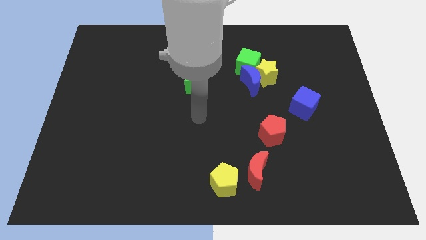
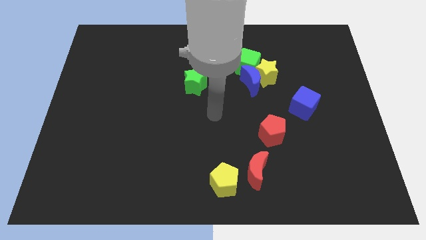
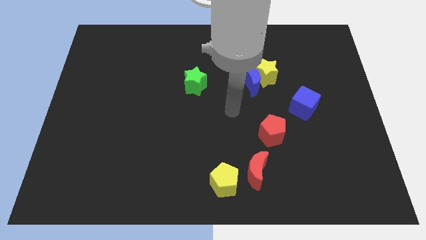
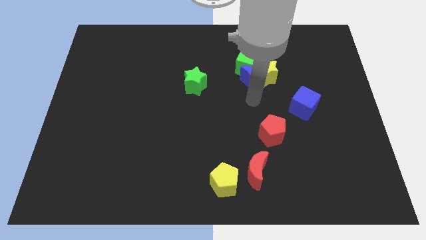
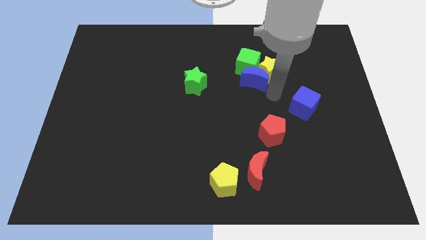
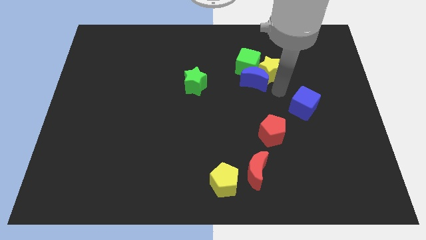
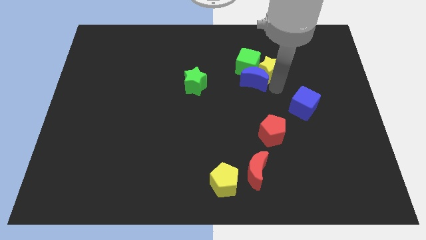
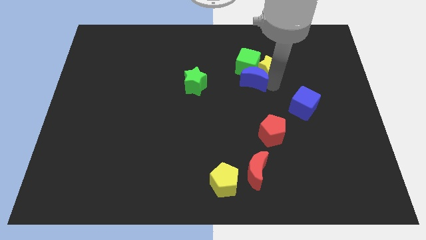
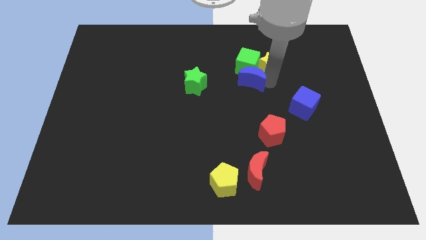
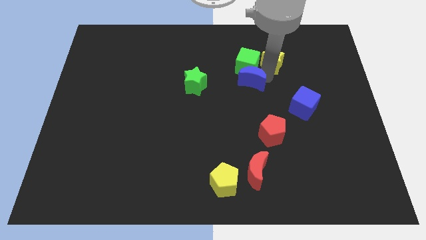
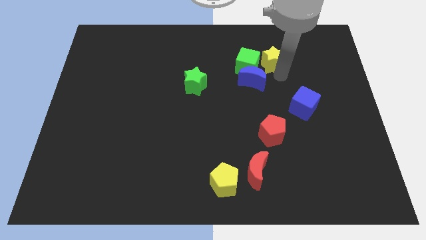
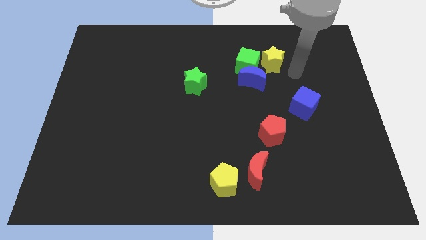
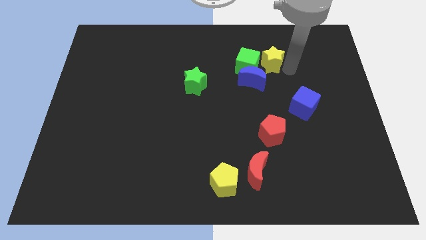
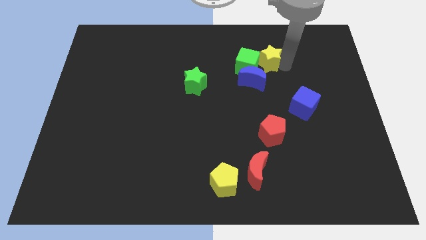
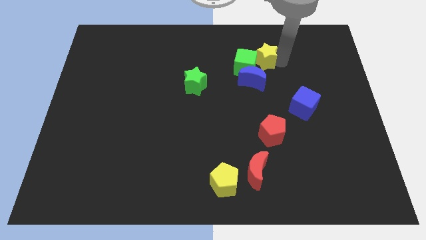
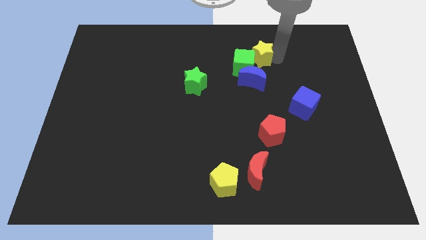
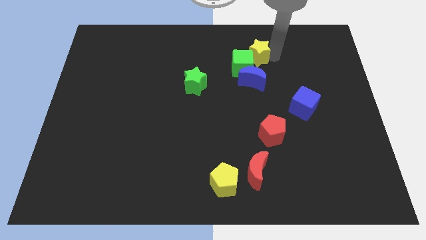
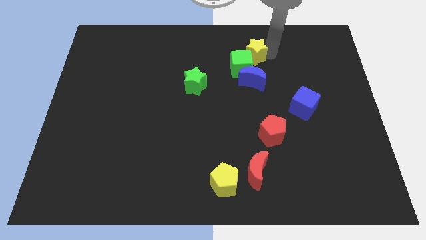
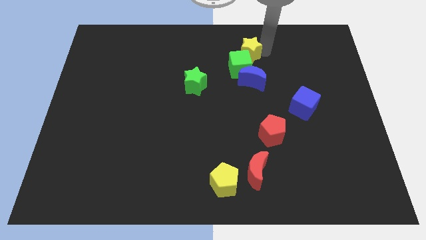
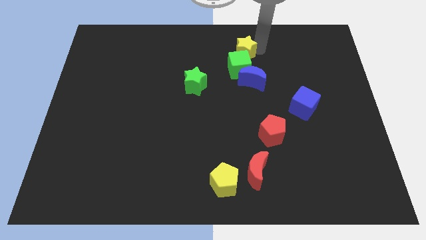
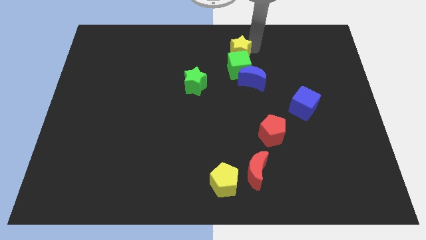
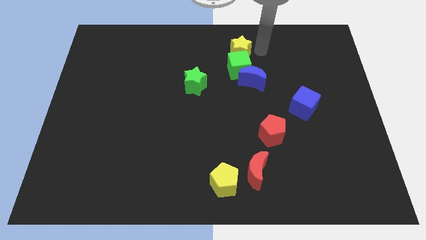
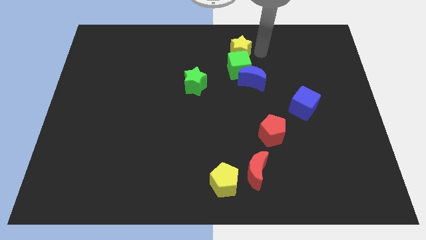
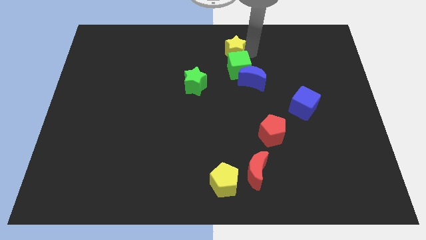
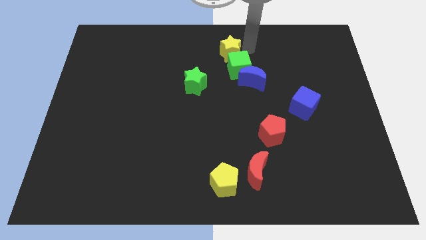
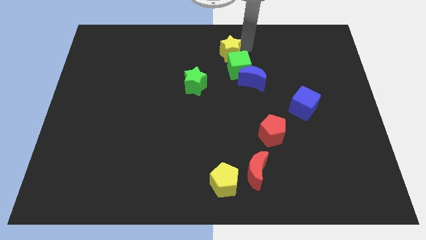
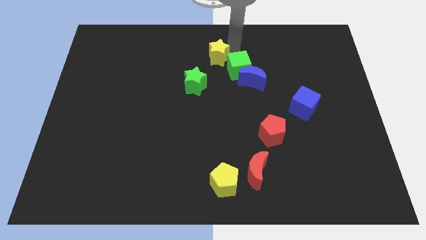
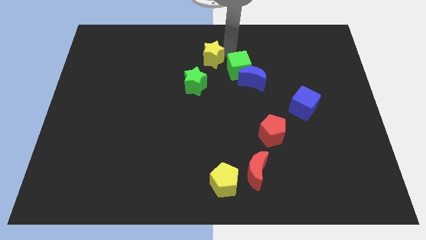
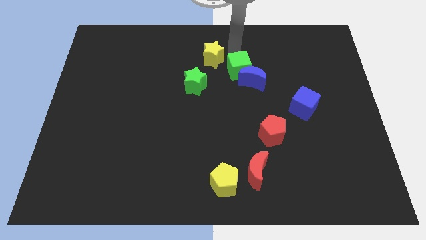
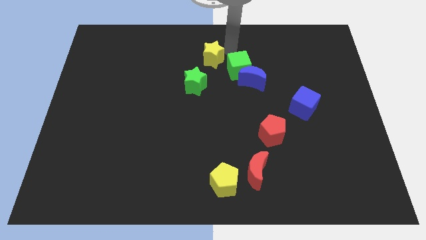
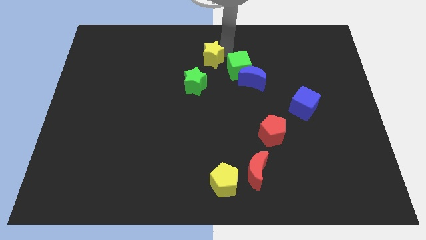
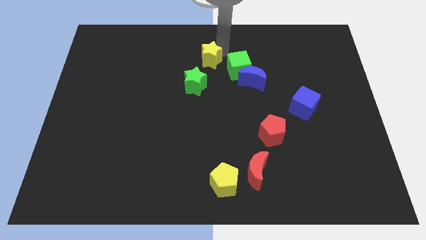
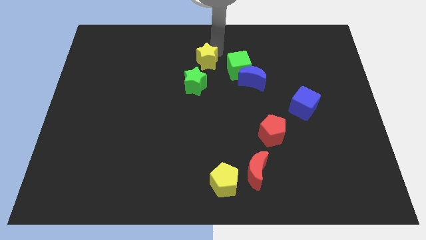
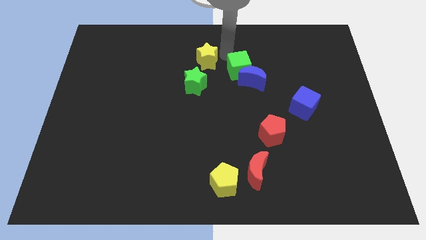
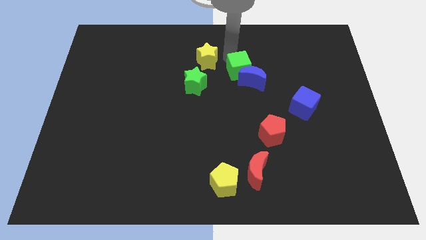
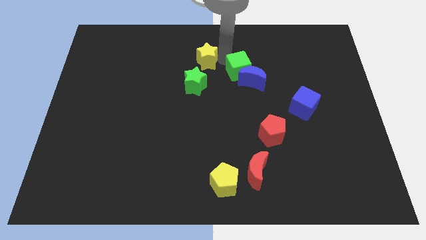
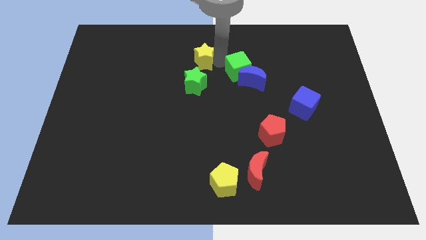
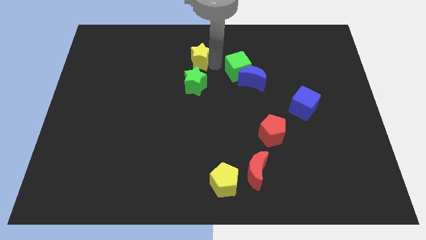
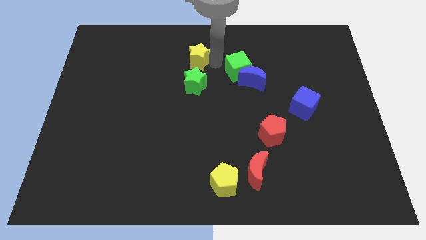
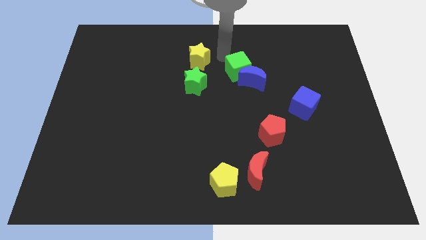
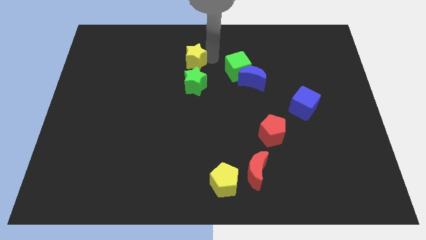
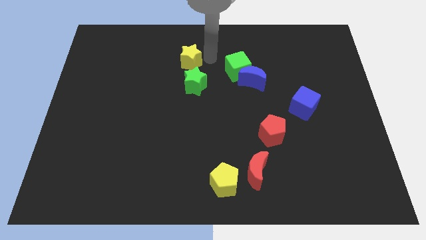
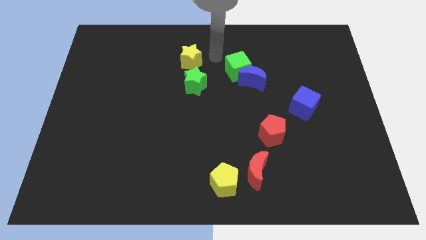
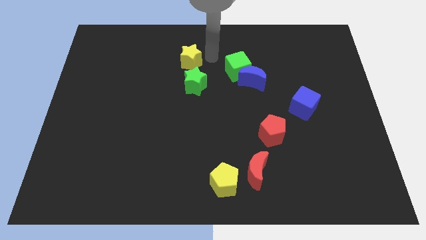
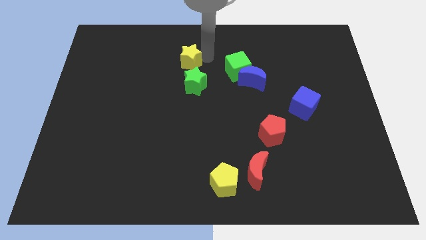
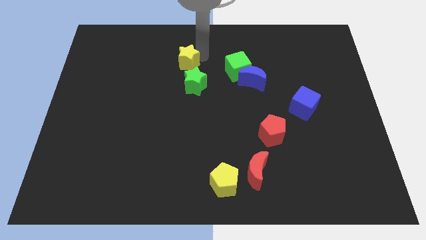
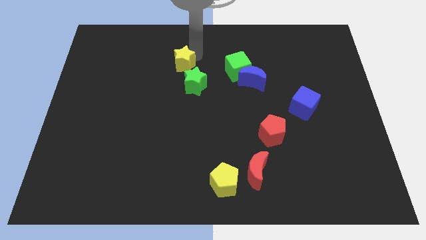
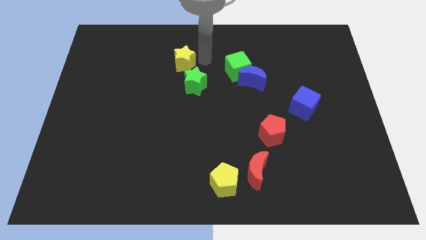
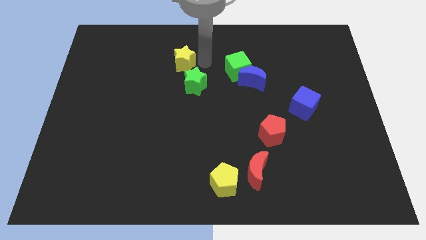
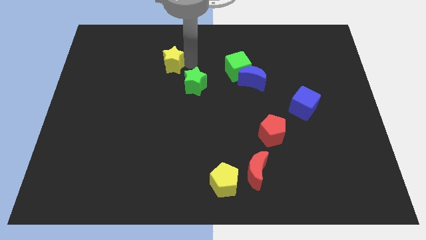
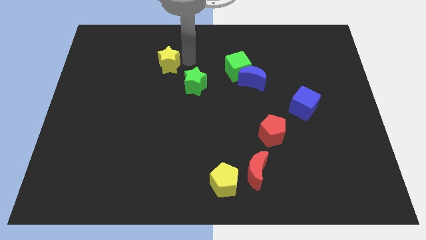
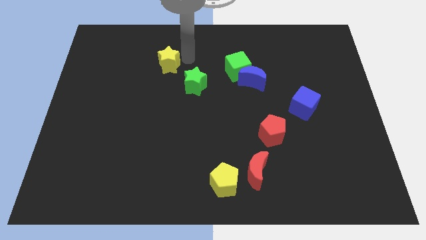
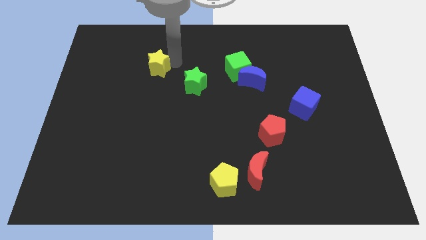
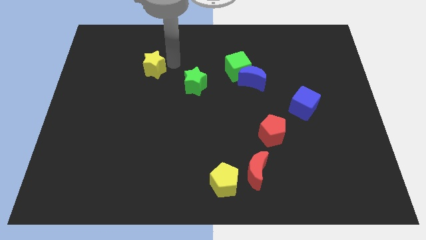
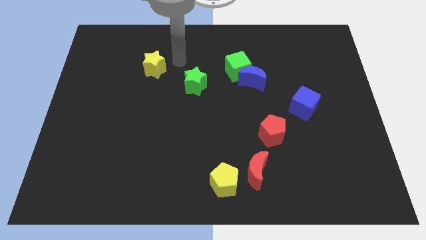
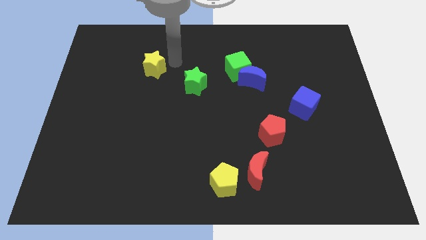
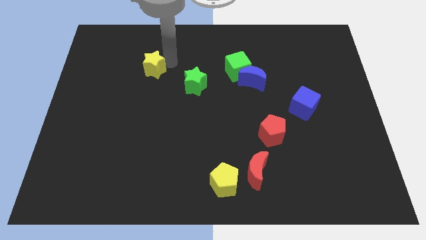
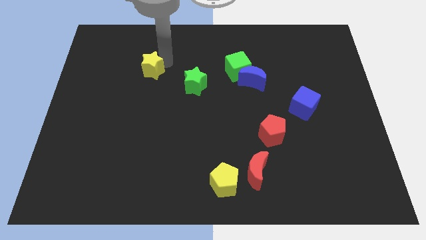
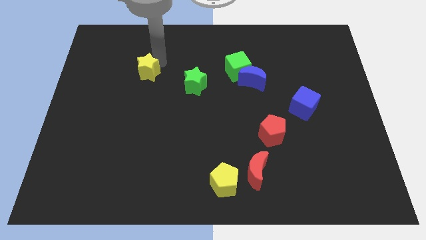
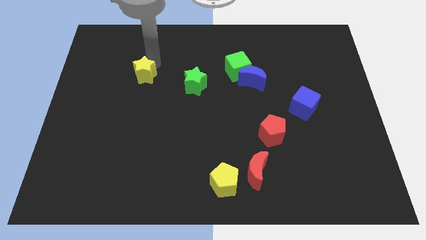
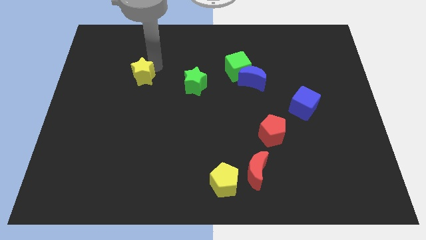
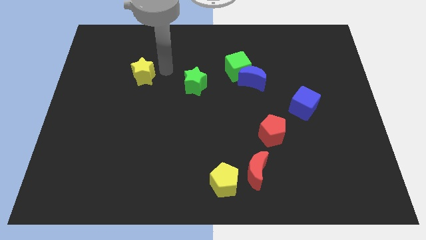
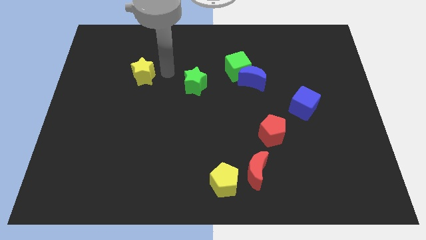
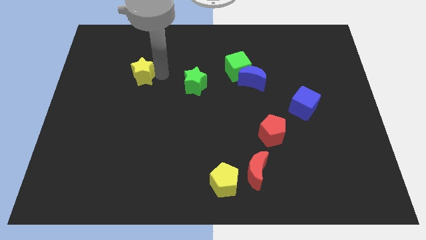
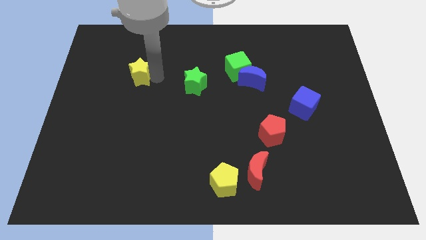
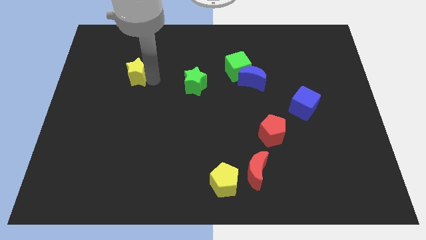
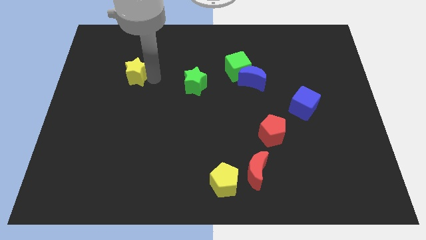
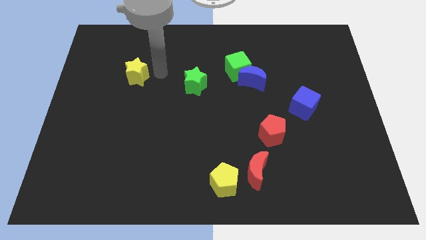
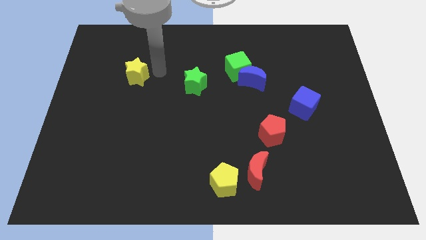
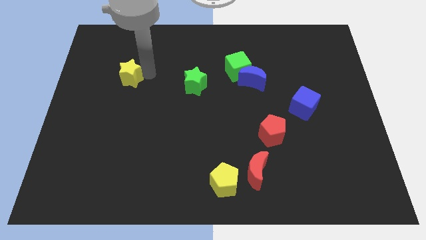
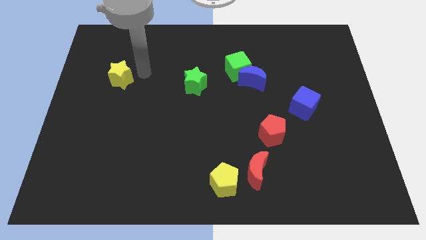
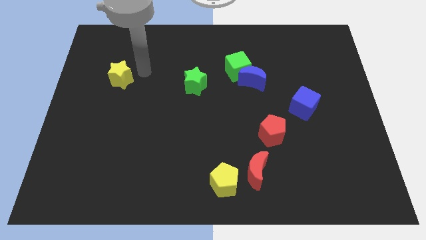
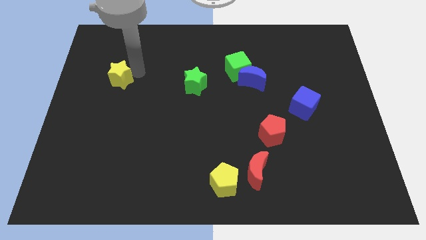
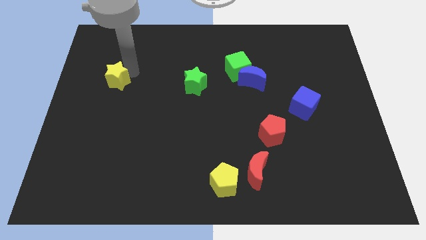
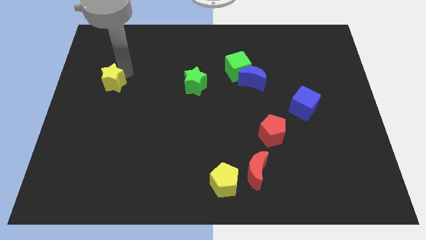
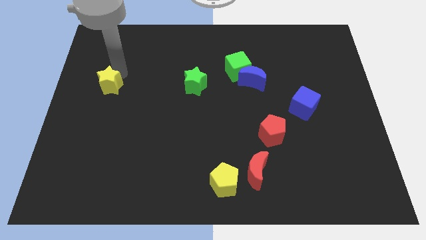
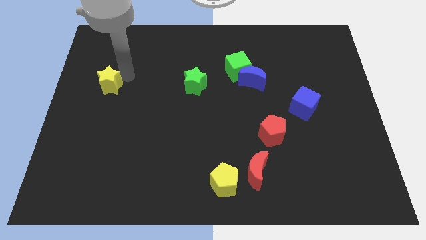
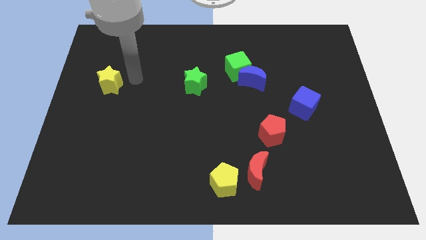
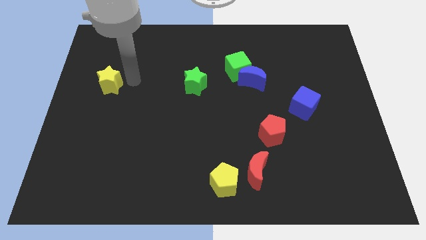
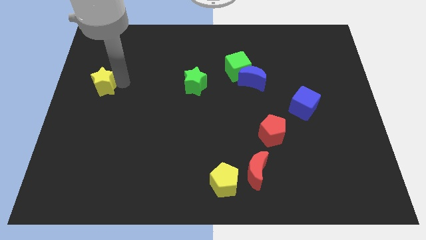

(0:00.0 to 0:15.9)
put the yellow star to the center left
